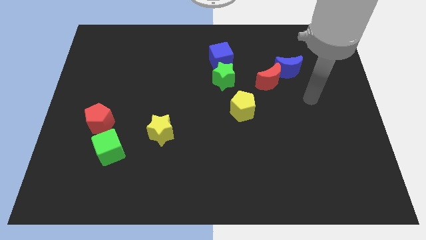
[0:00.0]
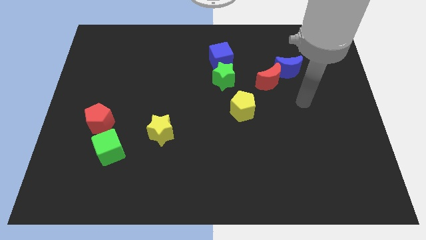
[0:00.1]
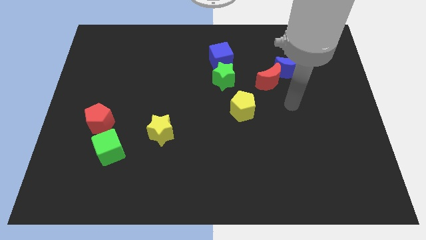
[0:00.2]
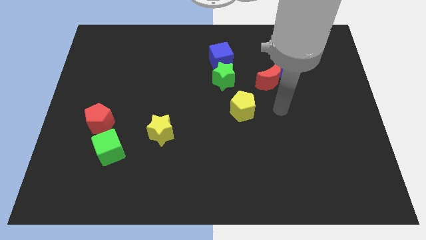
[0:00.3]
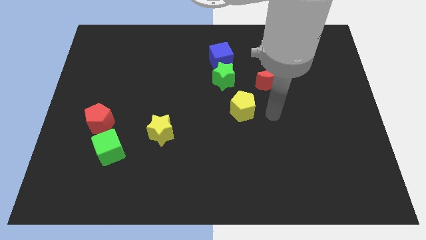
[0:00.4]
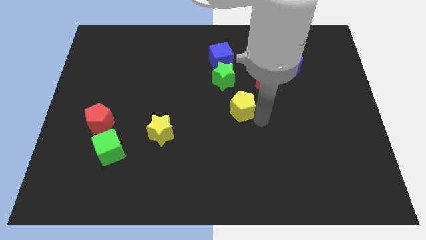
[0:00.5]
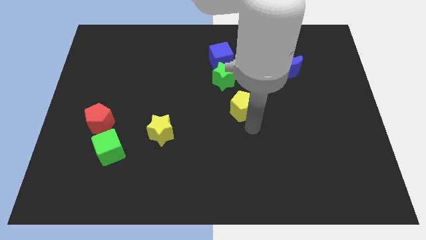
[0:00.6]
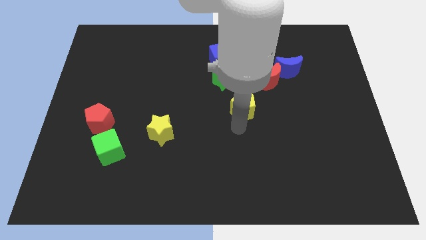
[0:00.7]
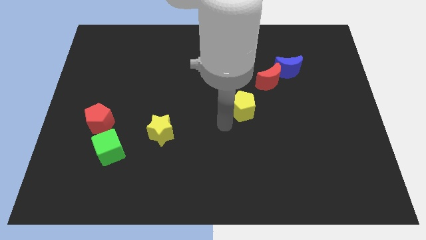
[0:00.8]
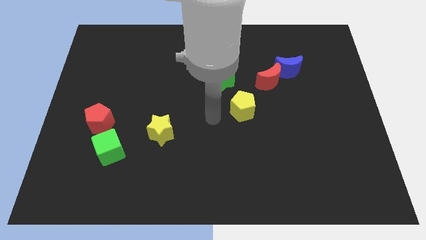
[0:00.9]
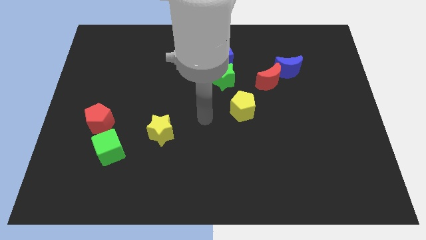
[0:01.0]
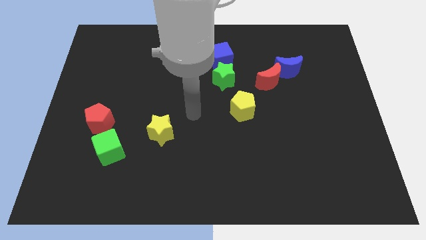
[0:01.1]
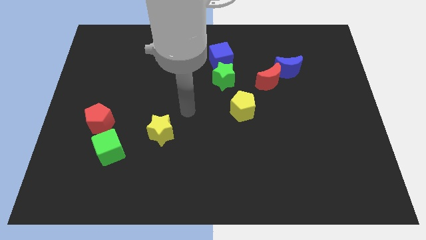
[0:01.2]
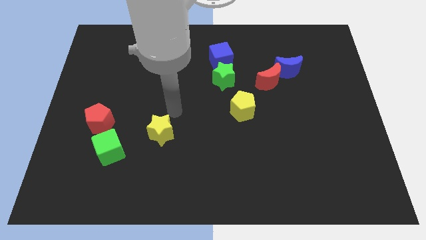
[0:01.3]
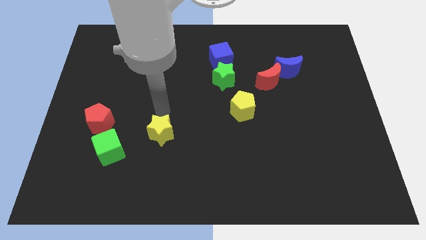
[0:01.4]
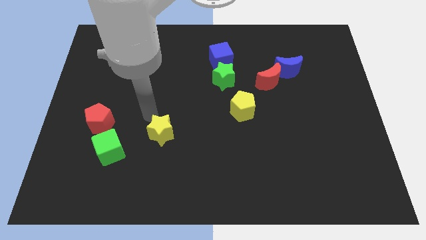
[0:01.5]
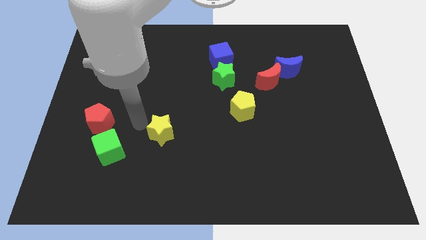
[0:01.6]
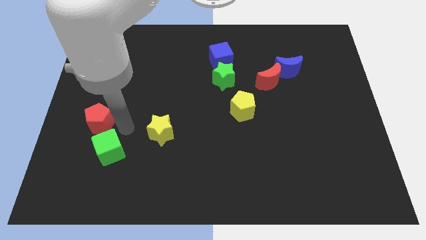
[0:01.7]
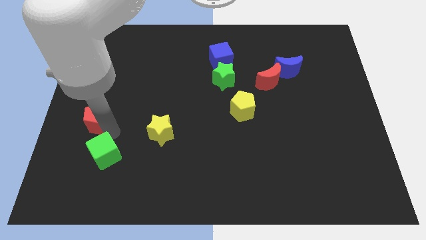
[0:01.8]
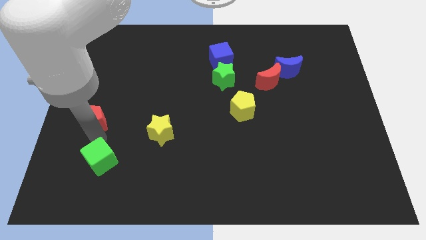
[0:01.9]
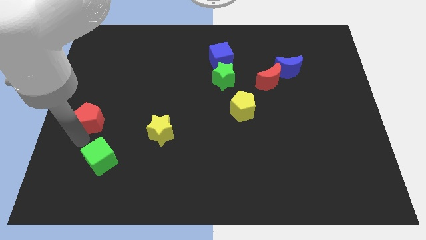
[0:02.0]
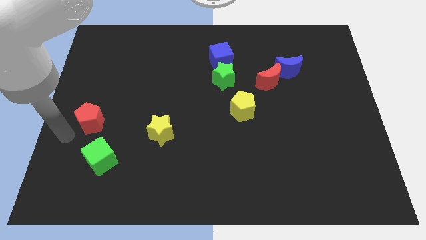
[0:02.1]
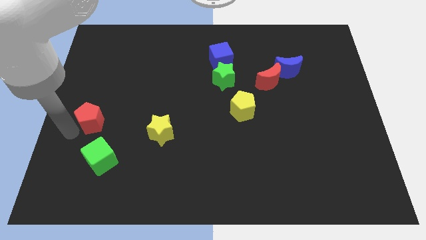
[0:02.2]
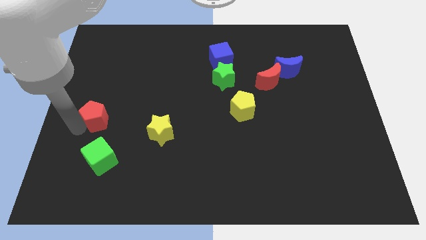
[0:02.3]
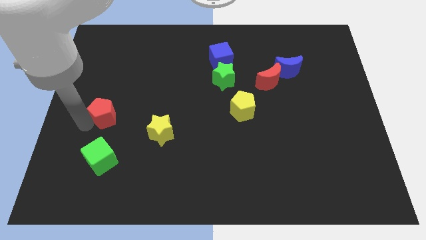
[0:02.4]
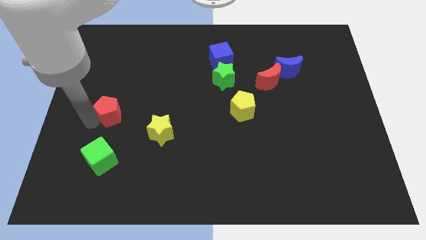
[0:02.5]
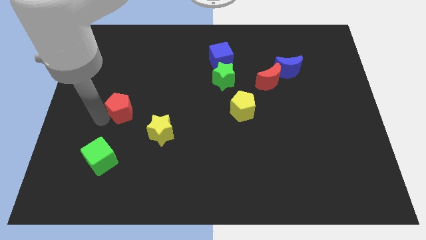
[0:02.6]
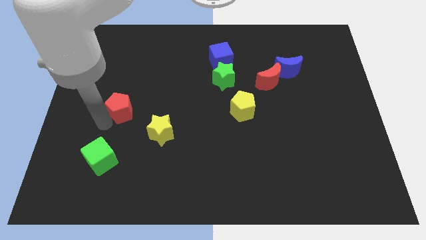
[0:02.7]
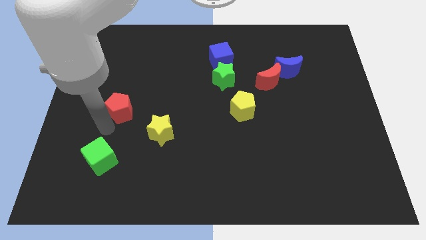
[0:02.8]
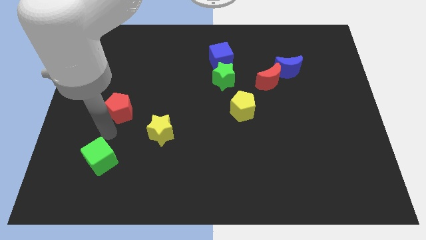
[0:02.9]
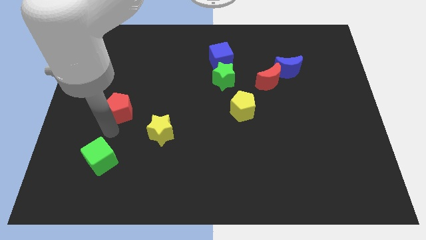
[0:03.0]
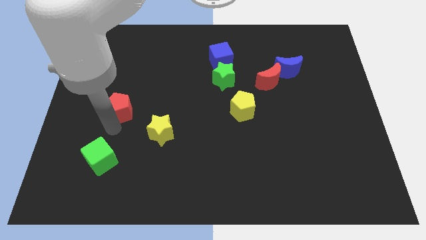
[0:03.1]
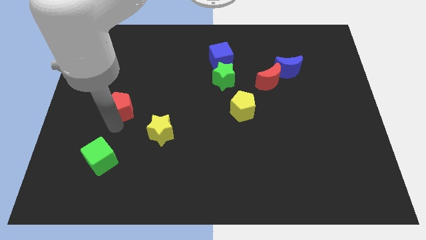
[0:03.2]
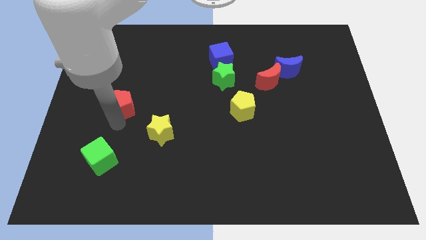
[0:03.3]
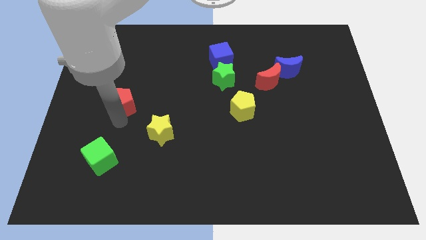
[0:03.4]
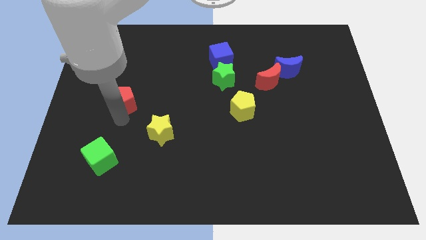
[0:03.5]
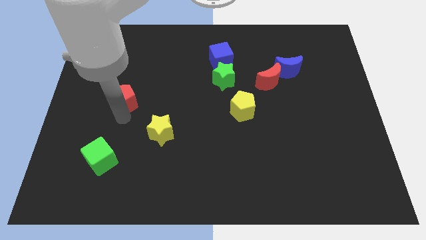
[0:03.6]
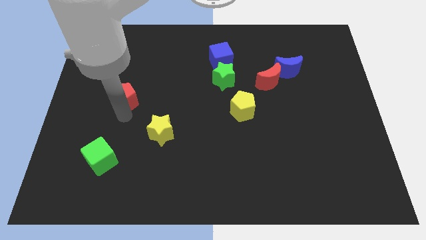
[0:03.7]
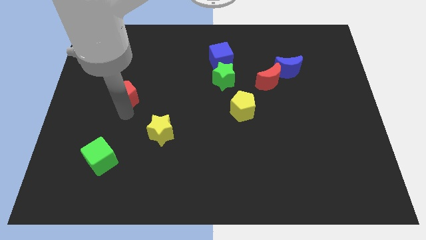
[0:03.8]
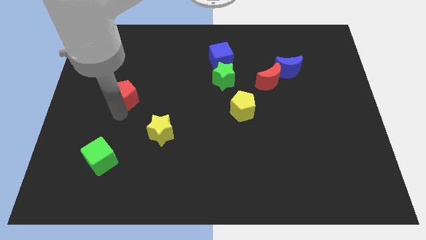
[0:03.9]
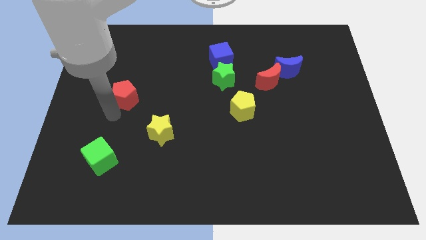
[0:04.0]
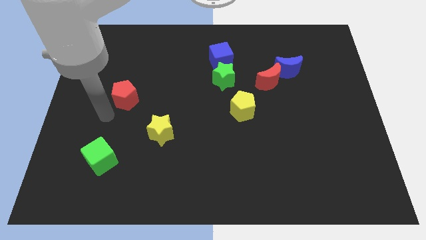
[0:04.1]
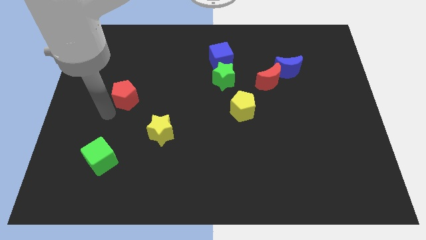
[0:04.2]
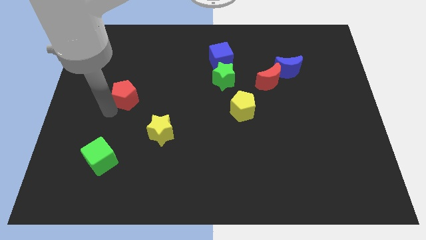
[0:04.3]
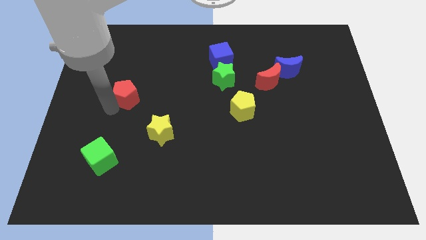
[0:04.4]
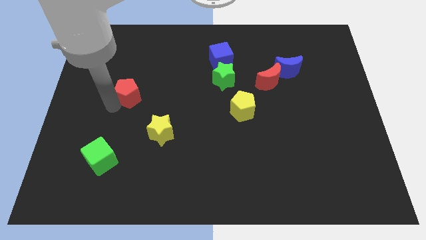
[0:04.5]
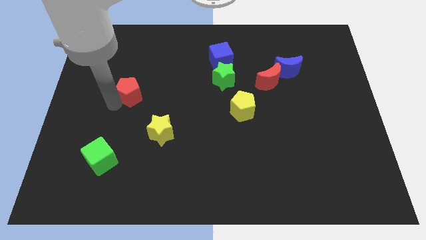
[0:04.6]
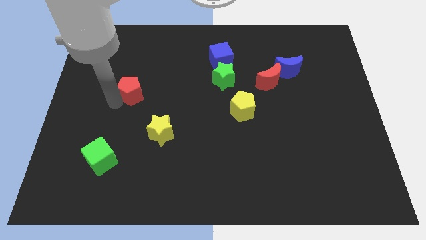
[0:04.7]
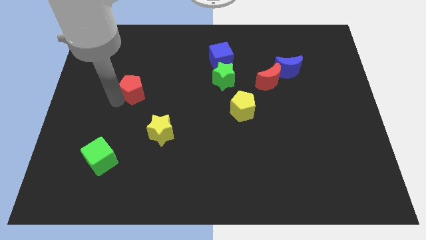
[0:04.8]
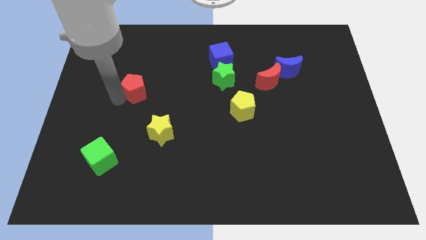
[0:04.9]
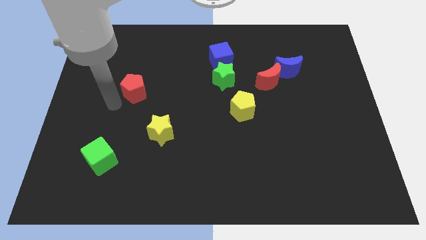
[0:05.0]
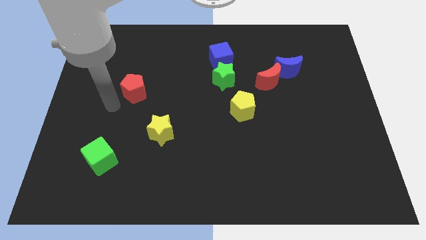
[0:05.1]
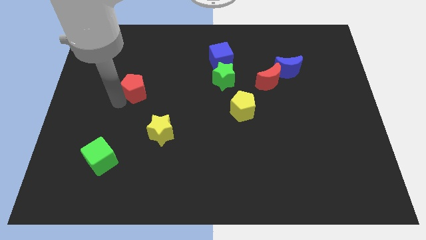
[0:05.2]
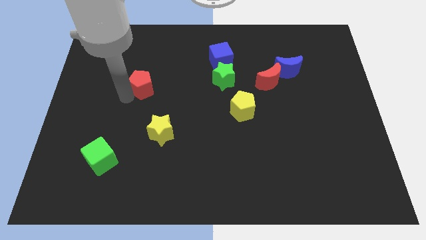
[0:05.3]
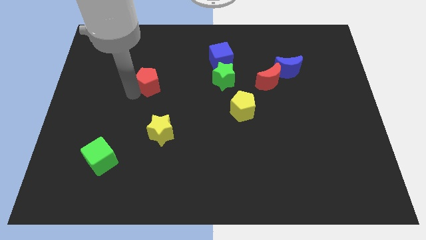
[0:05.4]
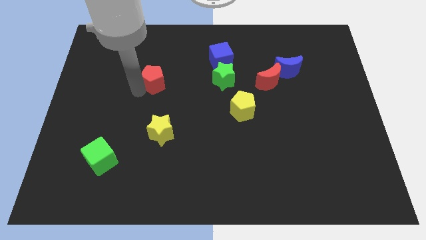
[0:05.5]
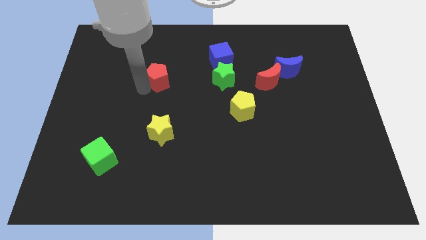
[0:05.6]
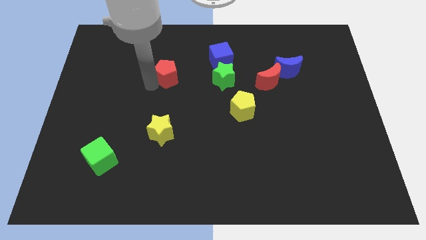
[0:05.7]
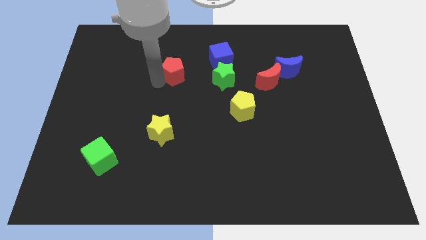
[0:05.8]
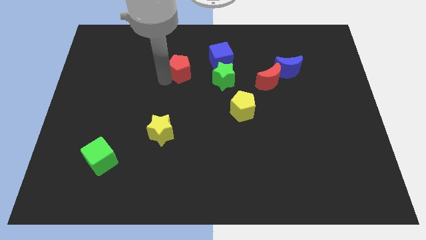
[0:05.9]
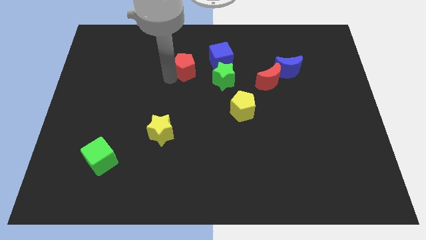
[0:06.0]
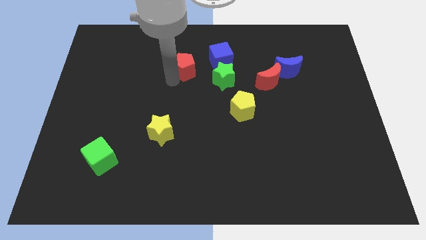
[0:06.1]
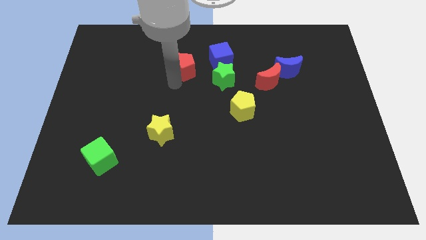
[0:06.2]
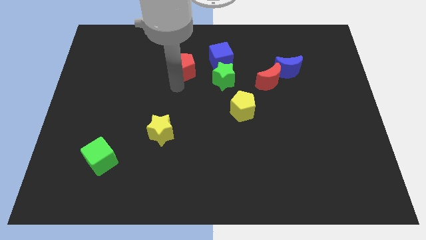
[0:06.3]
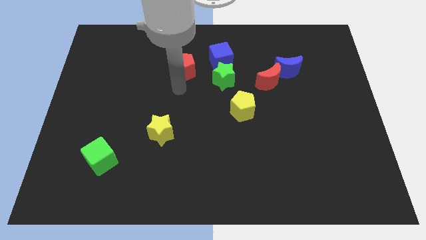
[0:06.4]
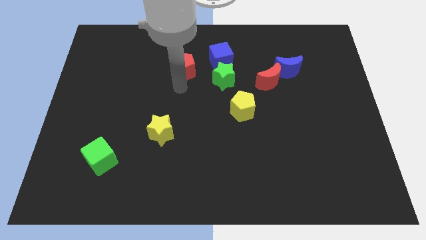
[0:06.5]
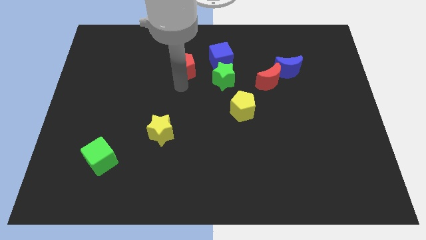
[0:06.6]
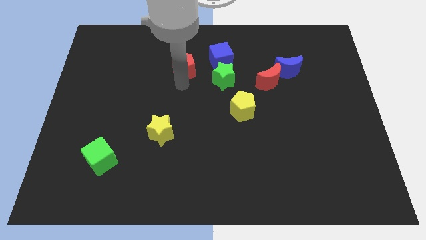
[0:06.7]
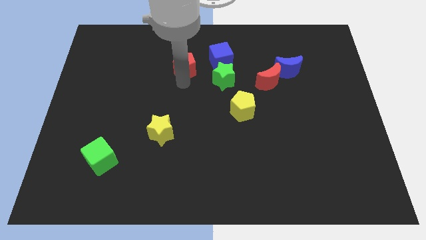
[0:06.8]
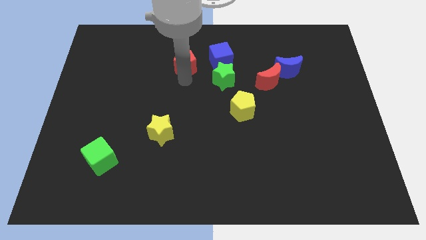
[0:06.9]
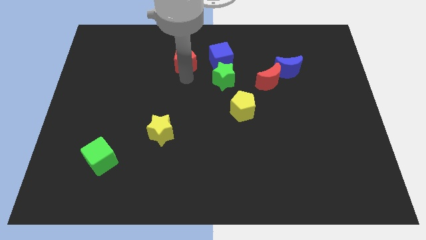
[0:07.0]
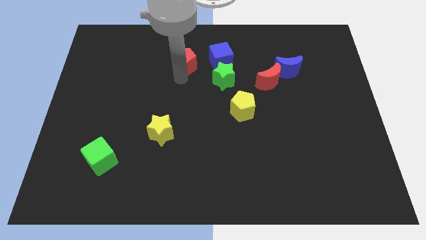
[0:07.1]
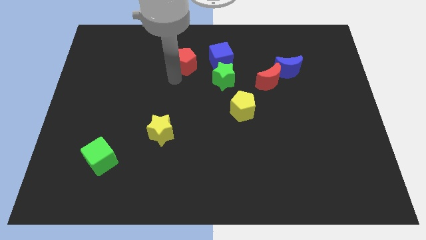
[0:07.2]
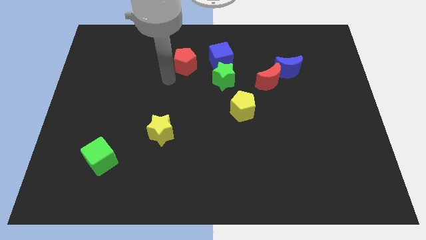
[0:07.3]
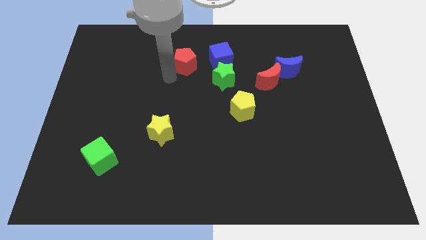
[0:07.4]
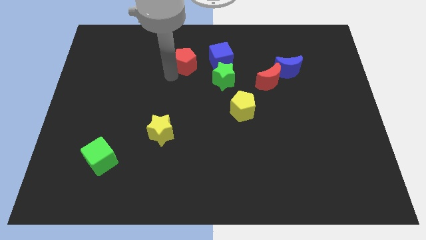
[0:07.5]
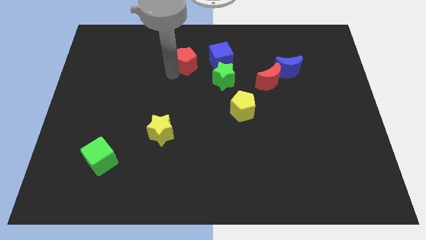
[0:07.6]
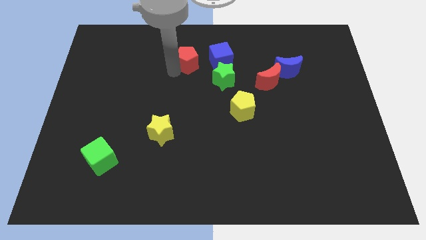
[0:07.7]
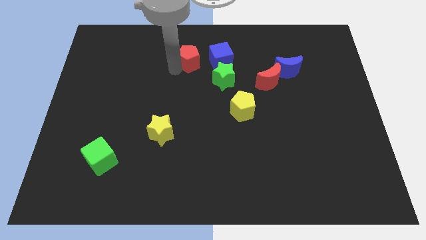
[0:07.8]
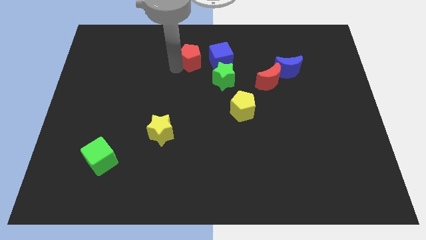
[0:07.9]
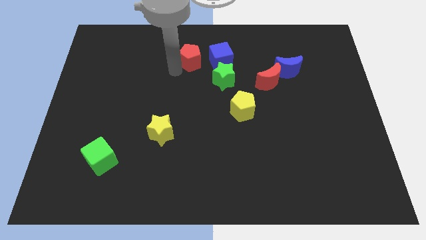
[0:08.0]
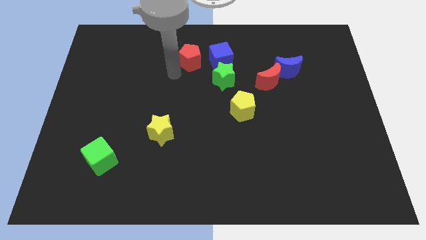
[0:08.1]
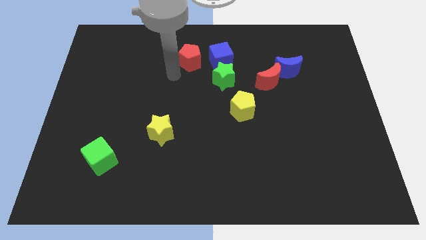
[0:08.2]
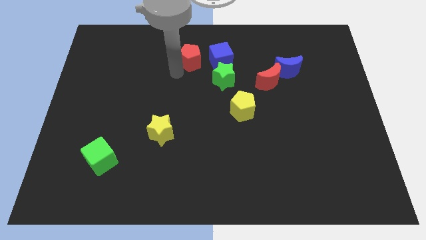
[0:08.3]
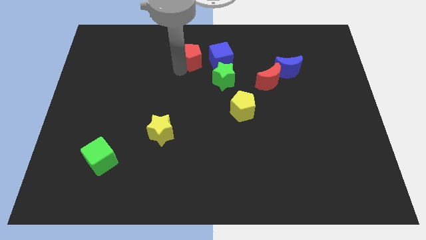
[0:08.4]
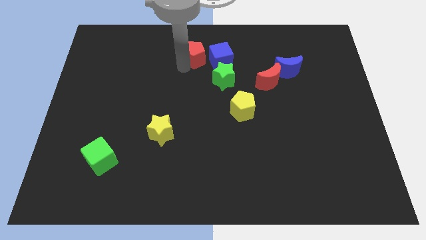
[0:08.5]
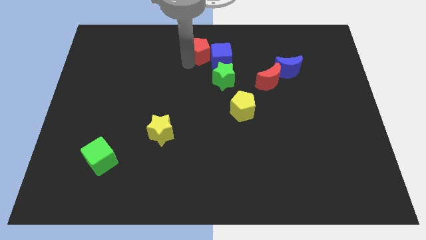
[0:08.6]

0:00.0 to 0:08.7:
move the red pentagon to the towards your base
